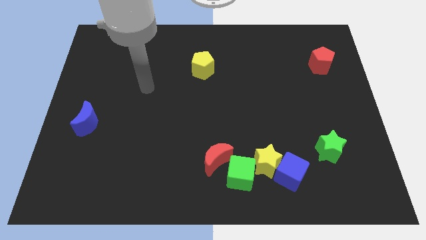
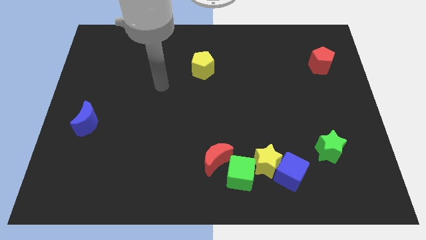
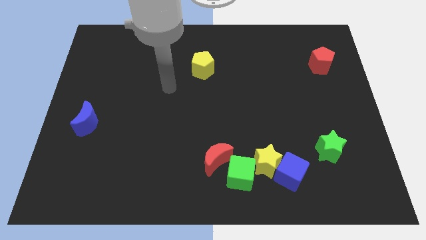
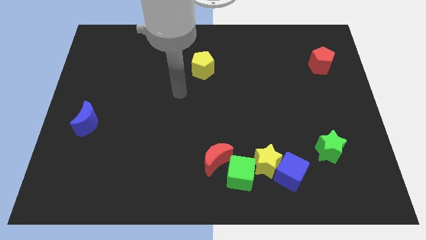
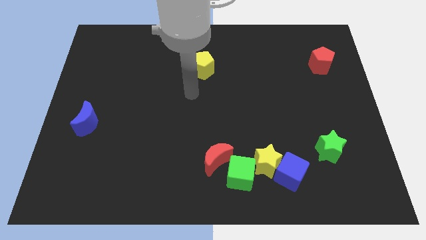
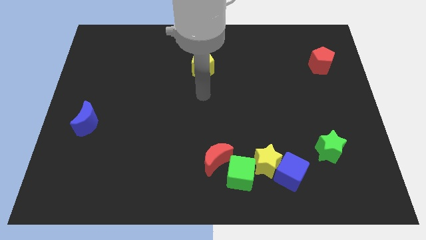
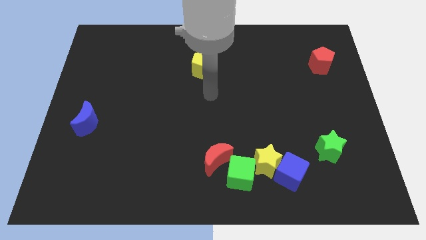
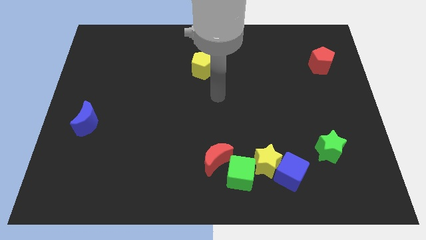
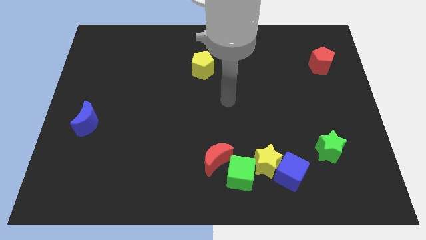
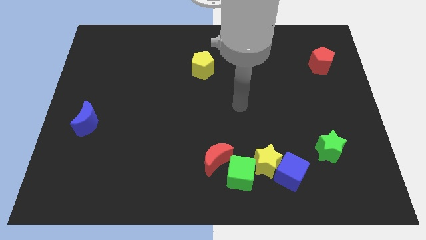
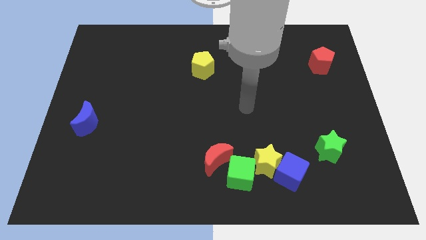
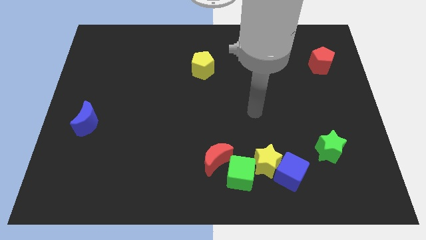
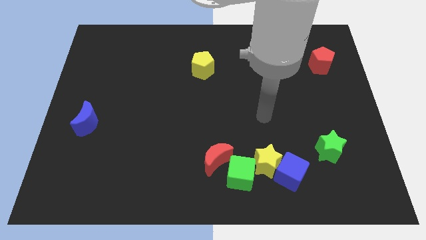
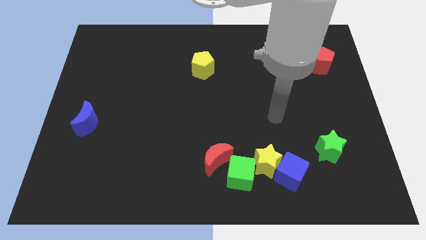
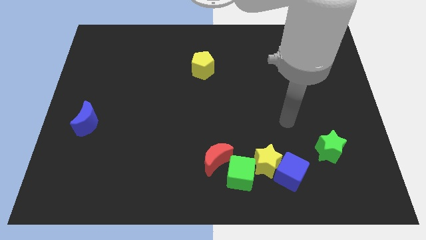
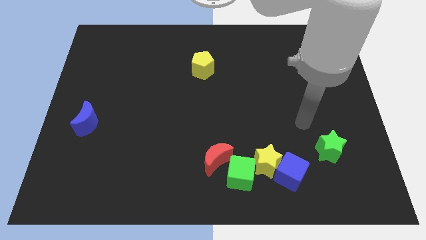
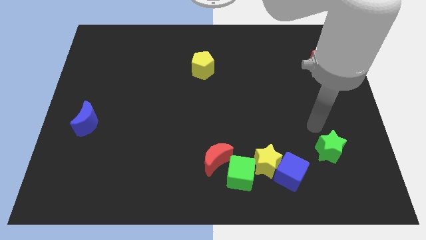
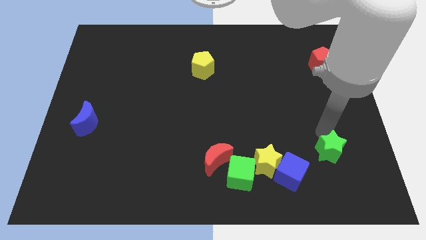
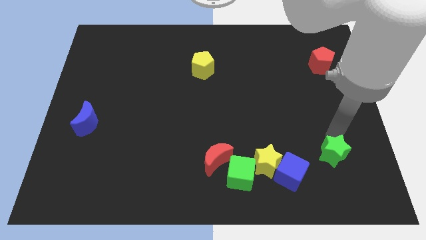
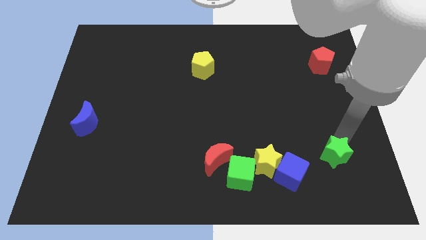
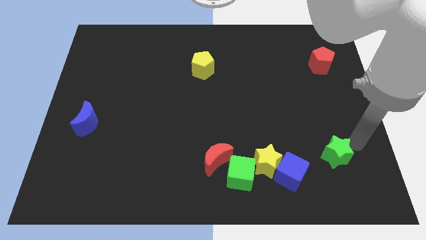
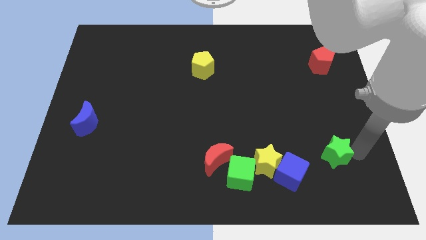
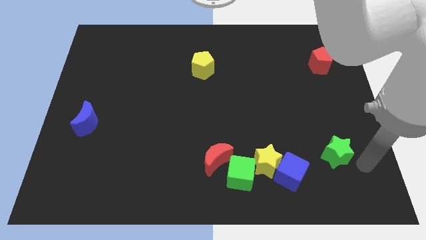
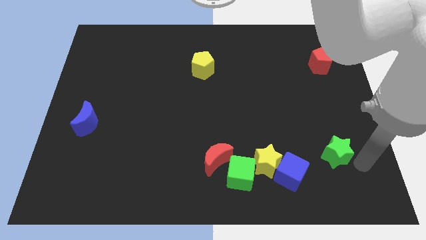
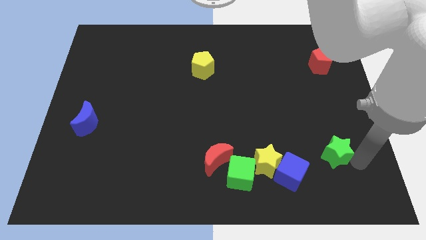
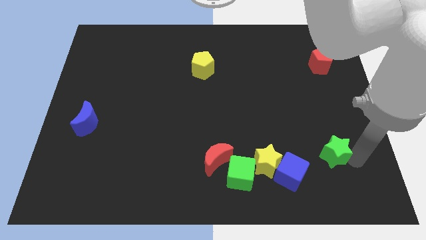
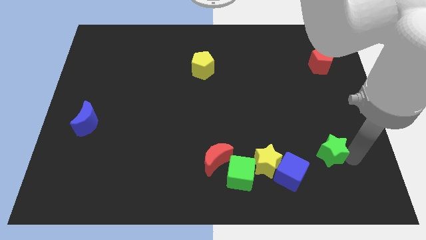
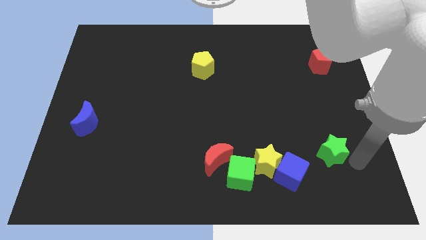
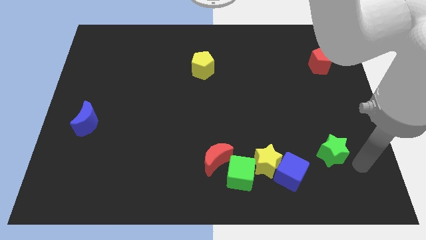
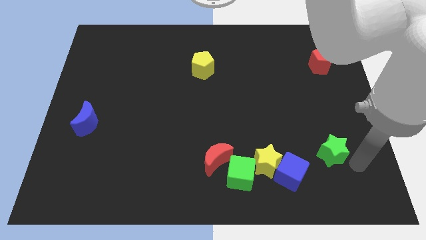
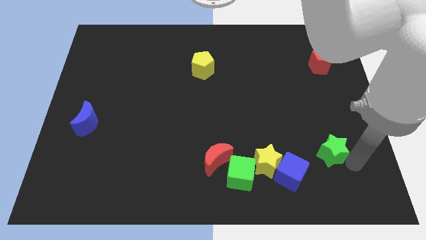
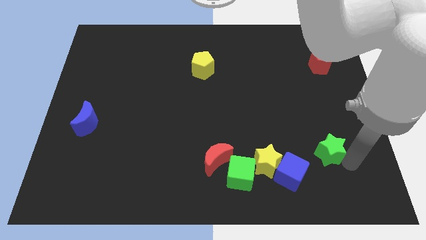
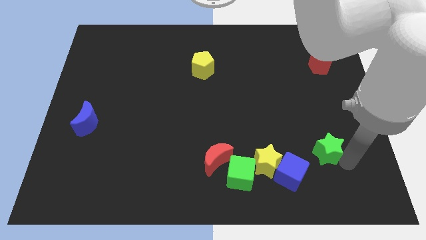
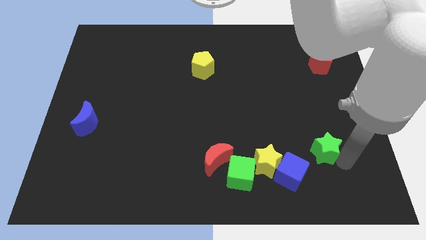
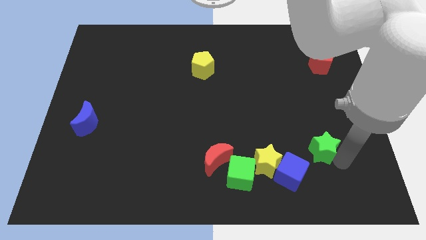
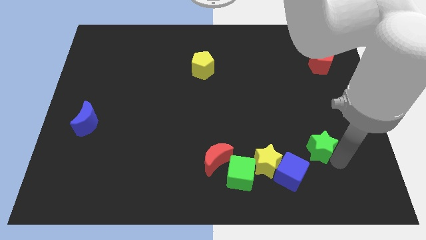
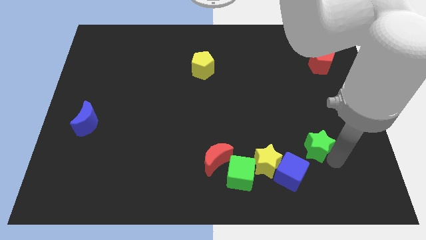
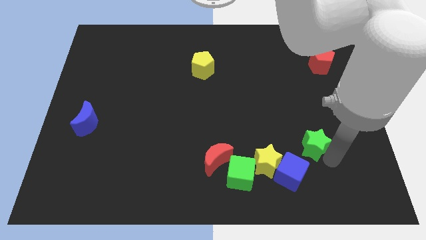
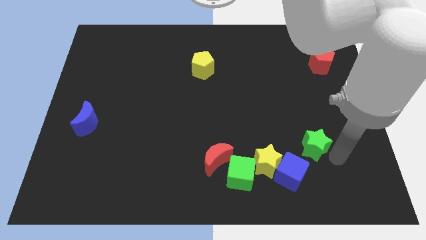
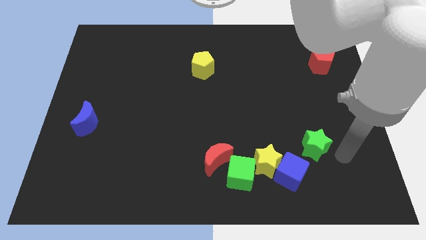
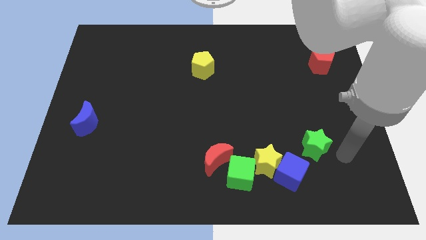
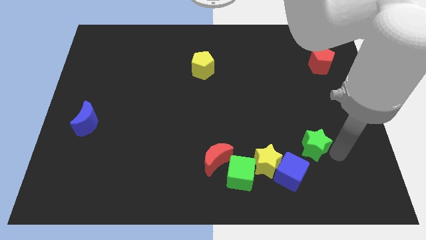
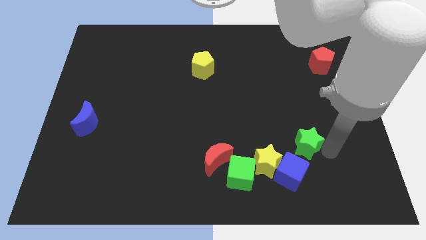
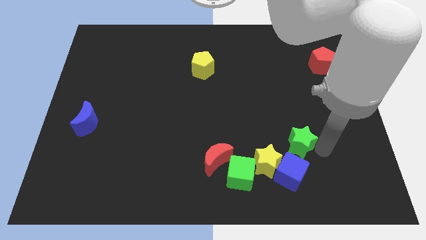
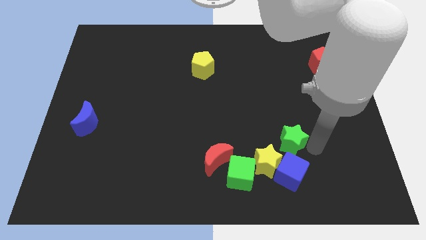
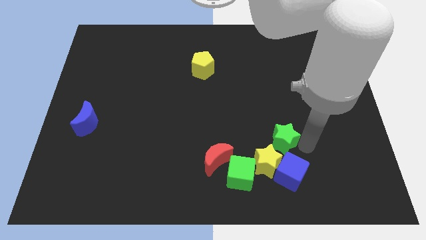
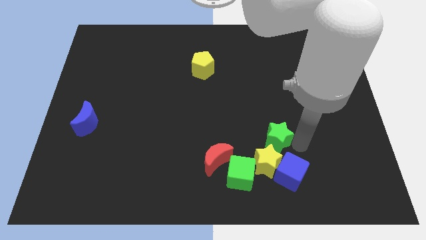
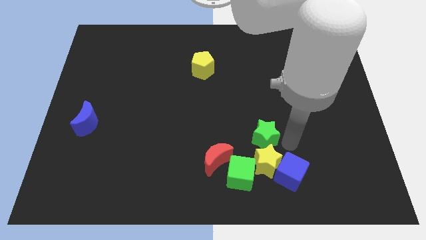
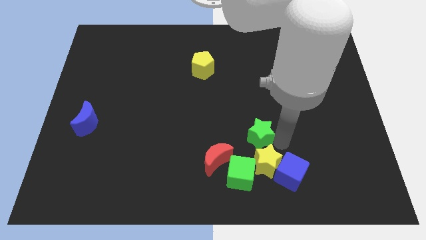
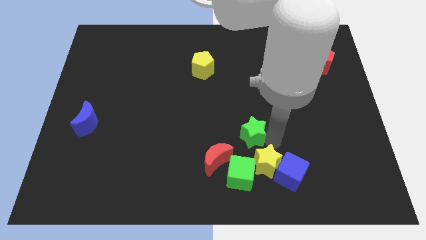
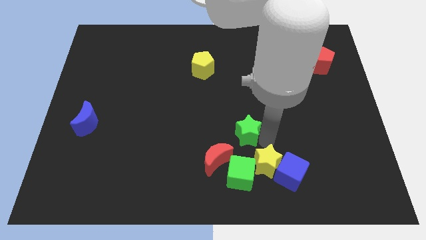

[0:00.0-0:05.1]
push the green star to the middle

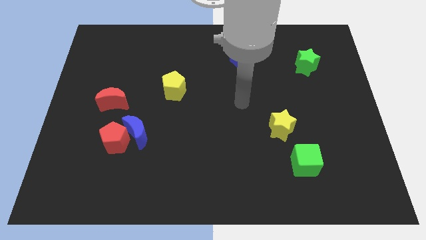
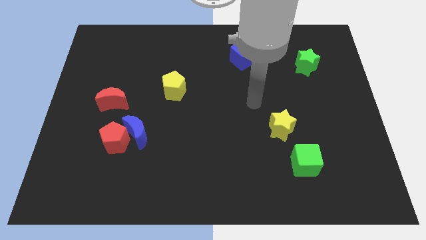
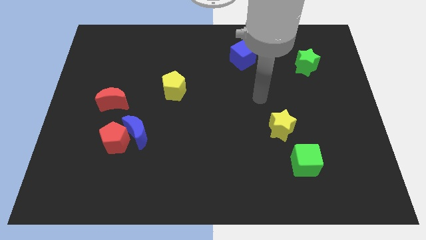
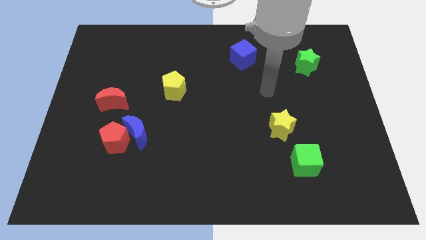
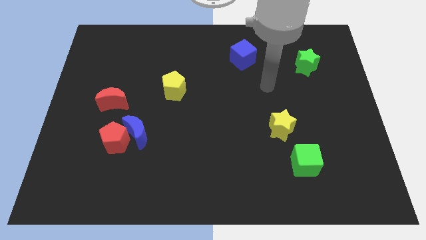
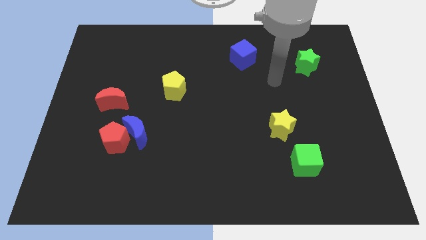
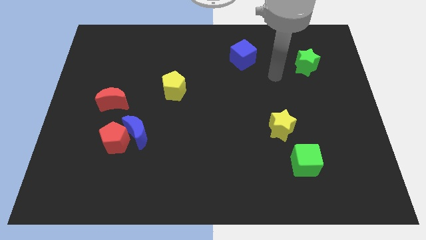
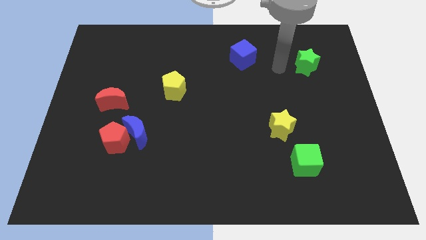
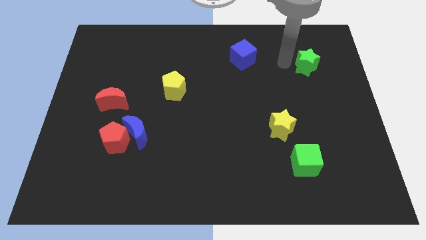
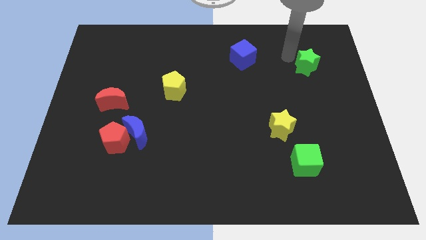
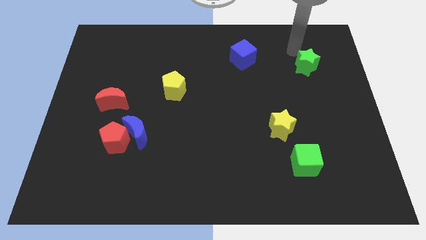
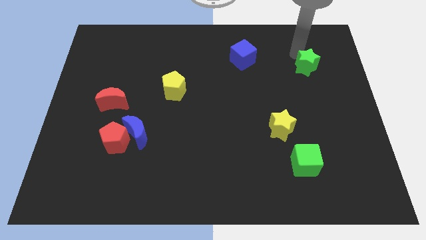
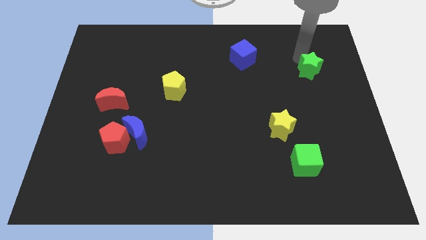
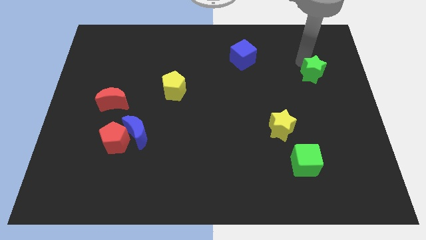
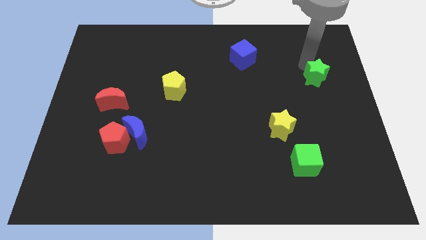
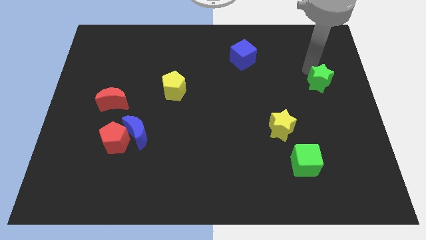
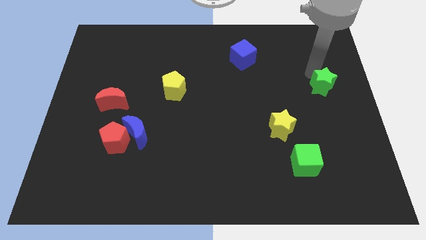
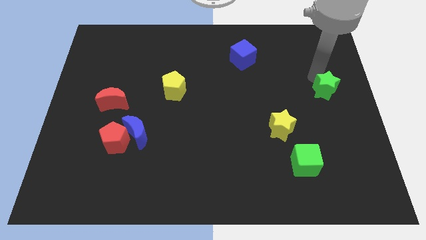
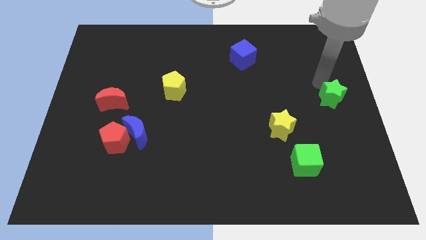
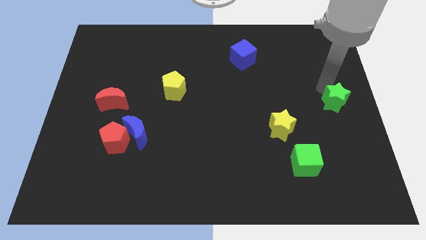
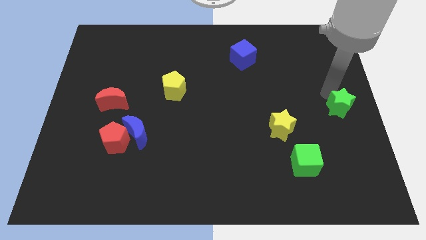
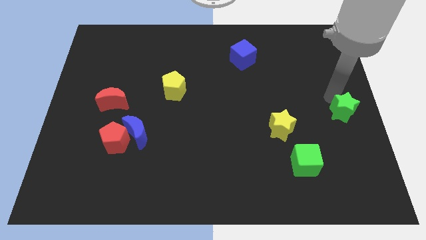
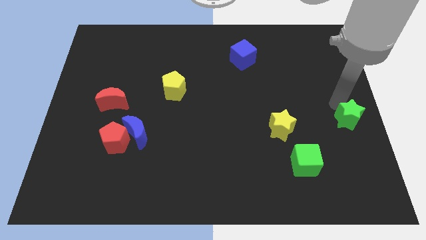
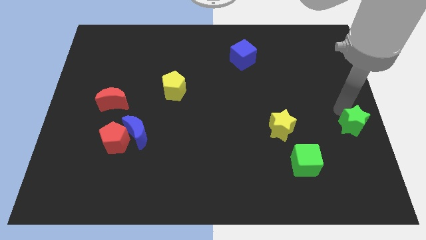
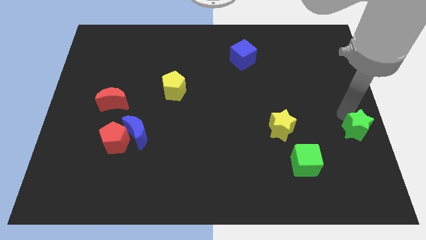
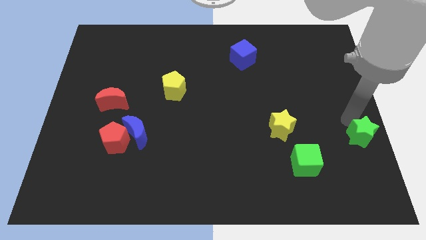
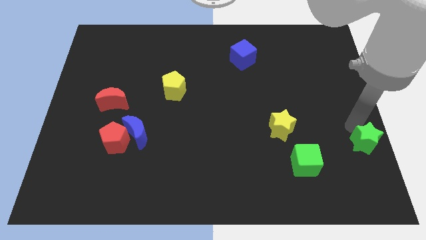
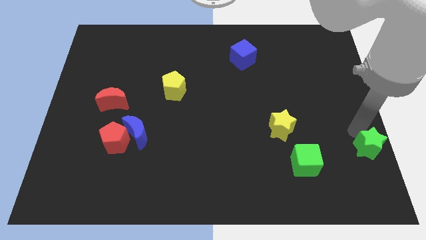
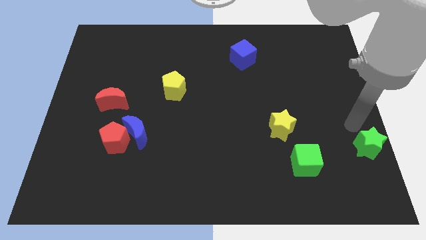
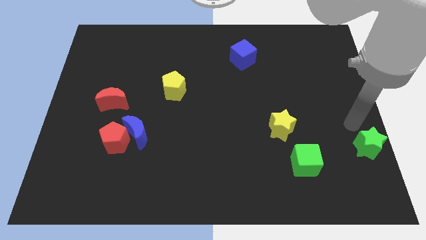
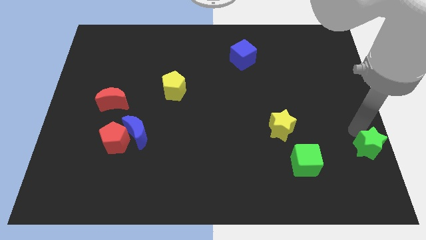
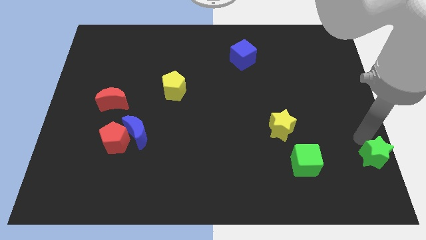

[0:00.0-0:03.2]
push the green star to the lower right corner
